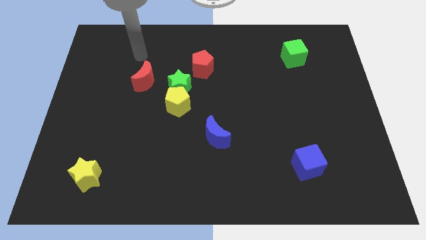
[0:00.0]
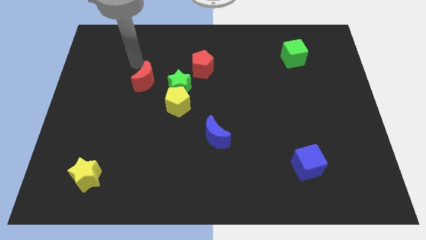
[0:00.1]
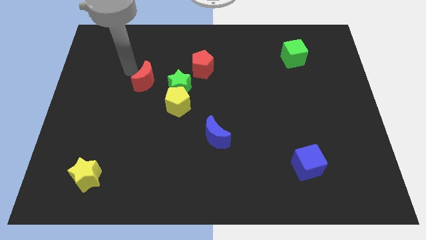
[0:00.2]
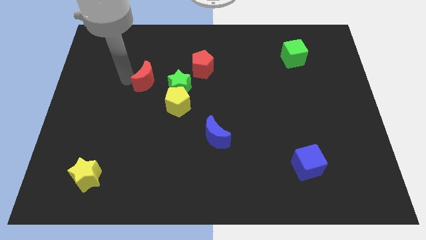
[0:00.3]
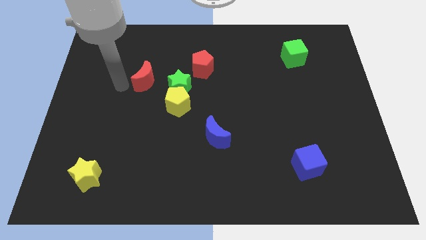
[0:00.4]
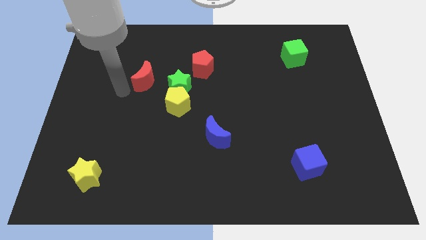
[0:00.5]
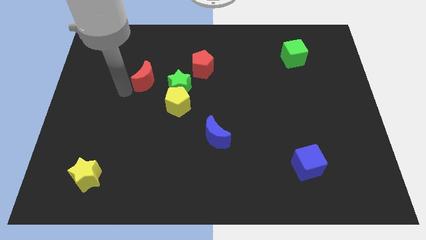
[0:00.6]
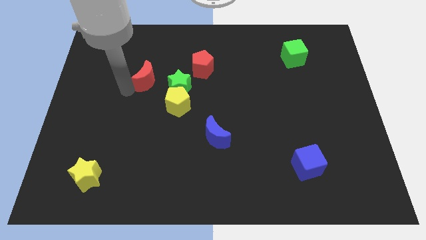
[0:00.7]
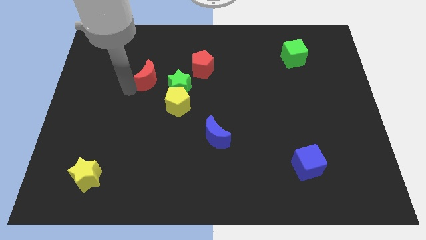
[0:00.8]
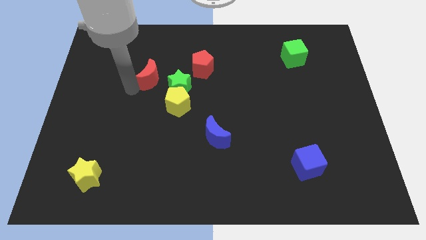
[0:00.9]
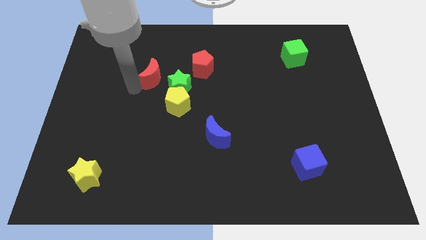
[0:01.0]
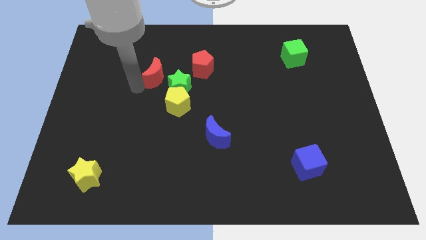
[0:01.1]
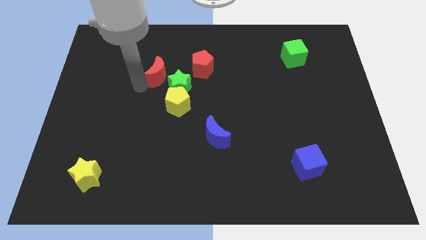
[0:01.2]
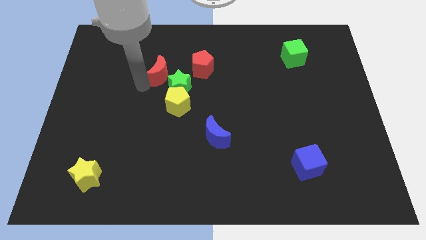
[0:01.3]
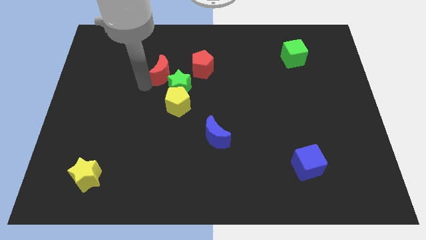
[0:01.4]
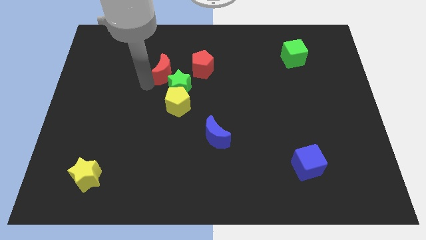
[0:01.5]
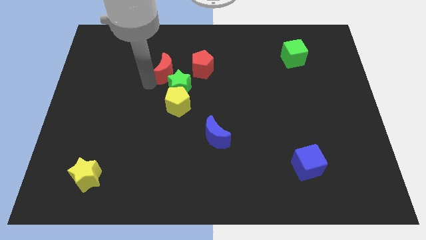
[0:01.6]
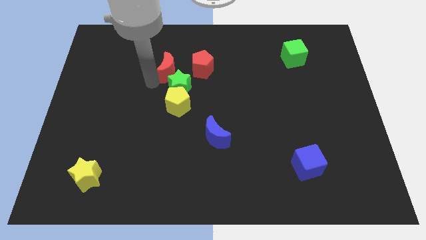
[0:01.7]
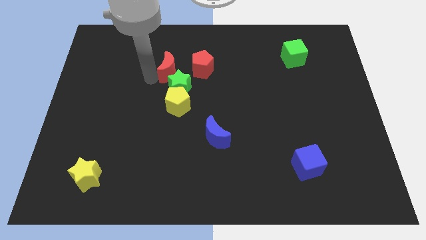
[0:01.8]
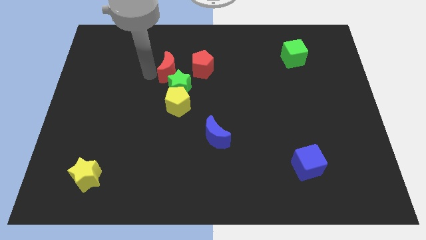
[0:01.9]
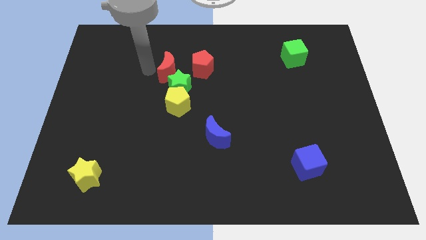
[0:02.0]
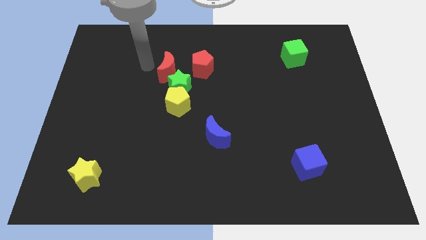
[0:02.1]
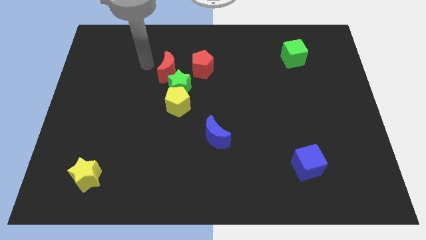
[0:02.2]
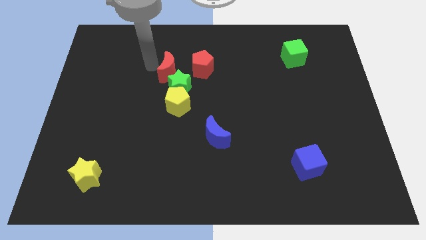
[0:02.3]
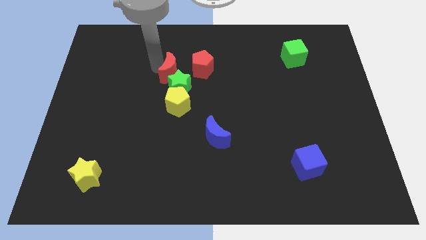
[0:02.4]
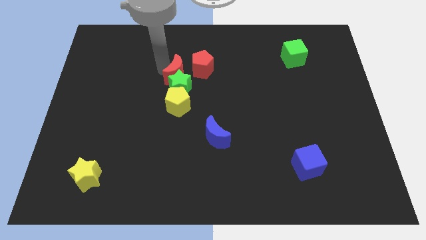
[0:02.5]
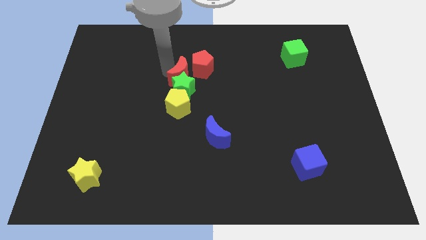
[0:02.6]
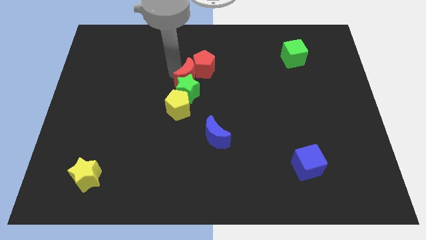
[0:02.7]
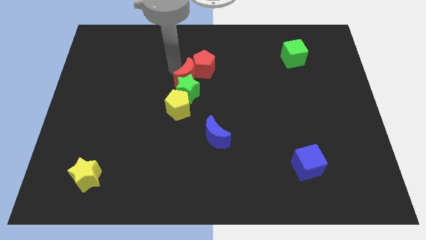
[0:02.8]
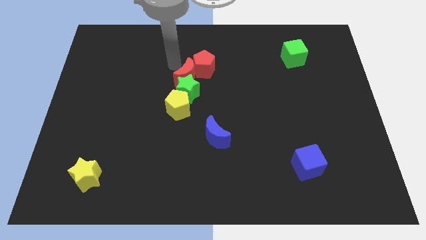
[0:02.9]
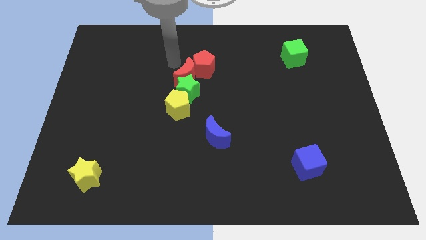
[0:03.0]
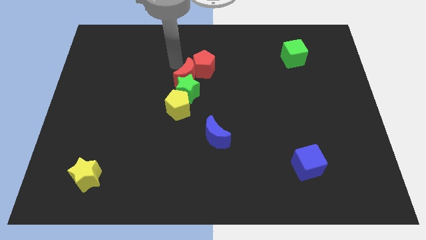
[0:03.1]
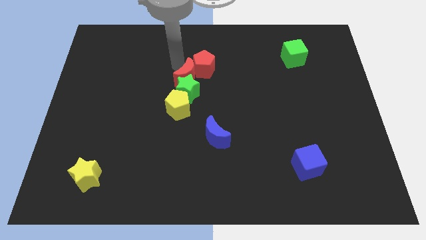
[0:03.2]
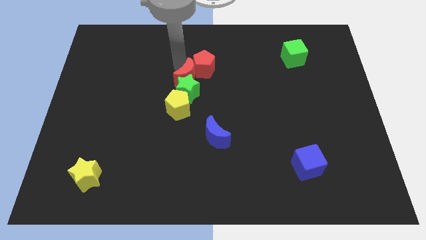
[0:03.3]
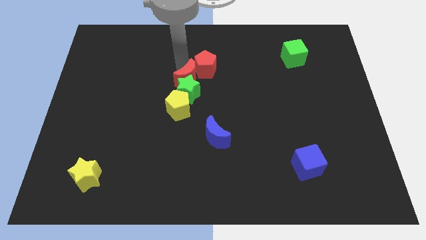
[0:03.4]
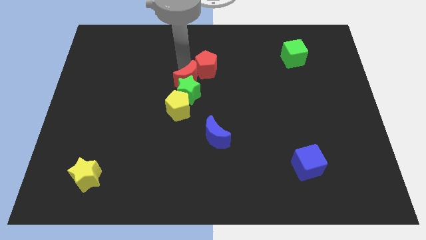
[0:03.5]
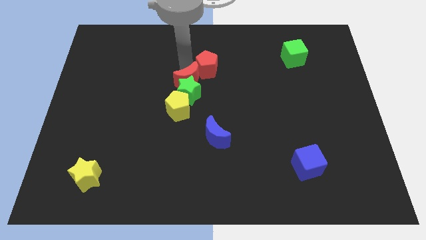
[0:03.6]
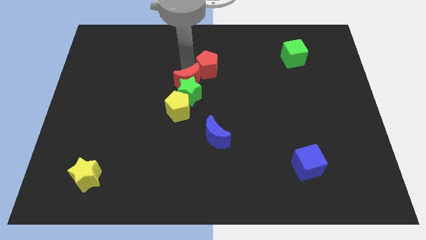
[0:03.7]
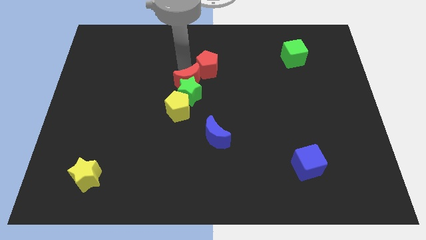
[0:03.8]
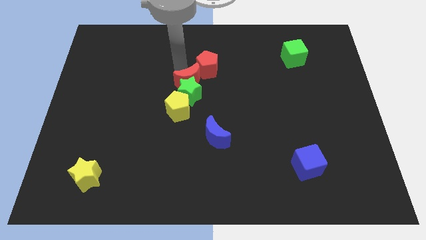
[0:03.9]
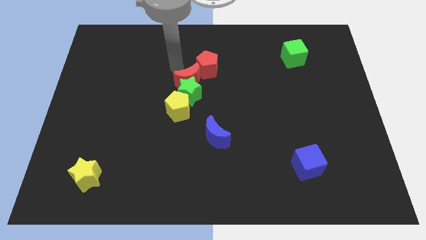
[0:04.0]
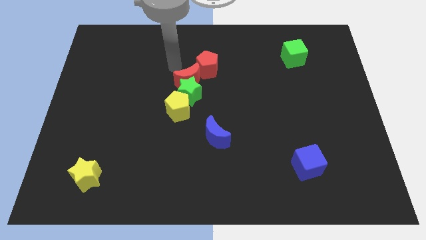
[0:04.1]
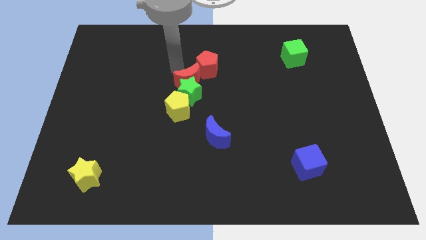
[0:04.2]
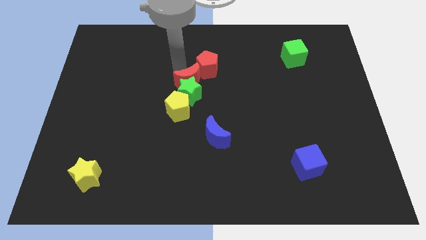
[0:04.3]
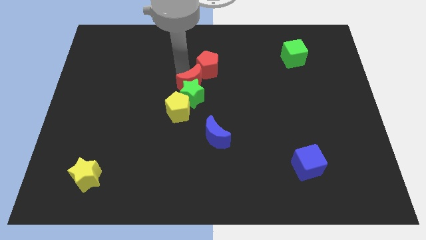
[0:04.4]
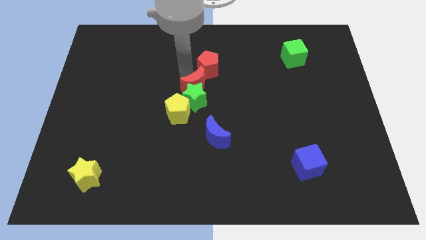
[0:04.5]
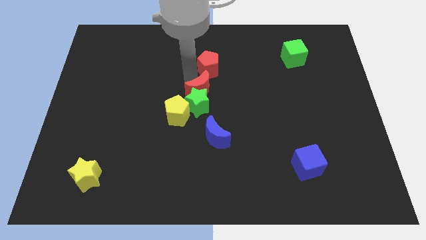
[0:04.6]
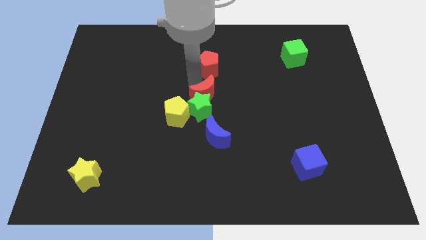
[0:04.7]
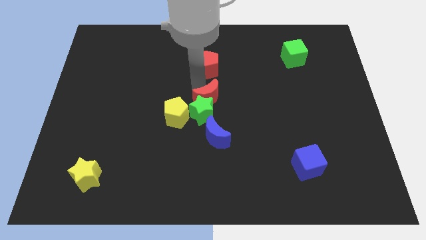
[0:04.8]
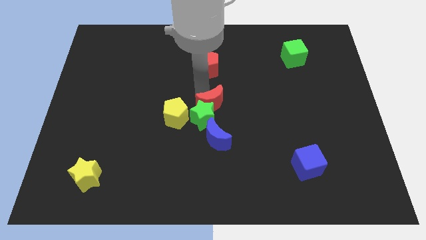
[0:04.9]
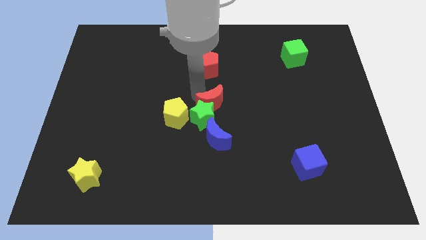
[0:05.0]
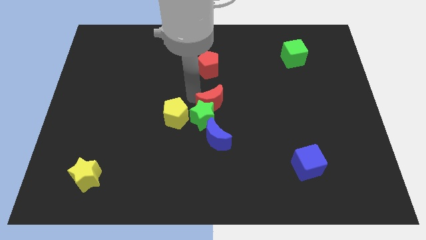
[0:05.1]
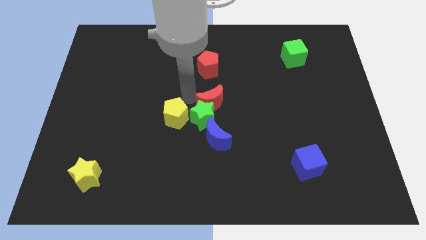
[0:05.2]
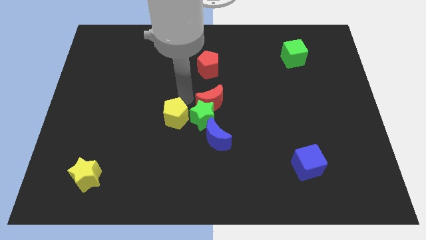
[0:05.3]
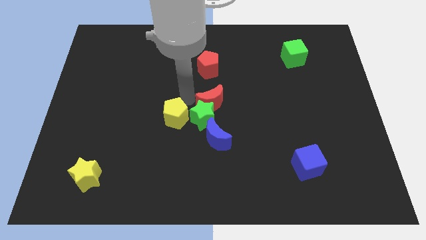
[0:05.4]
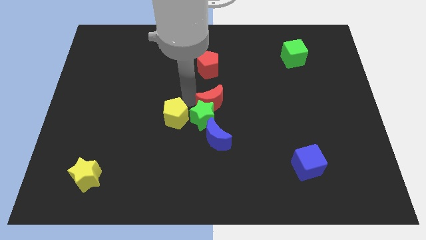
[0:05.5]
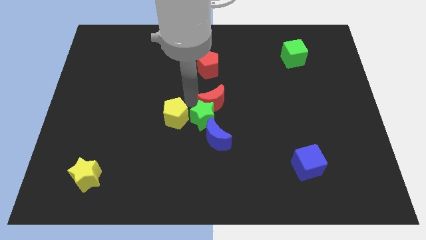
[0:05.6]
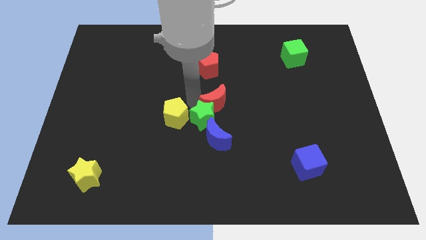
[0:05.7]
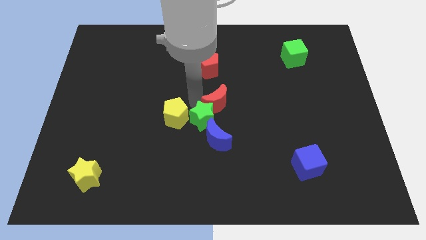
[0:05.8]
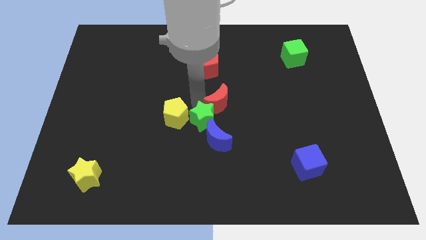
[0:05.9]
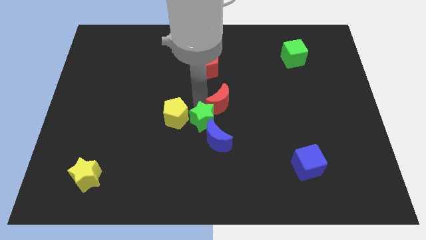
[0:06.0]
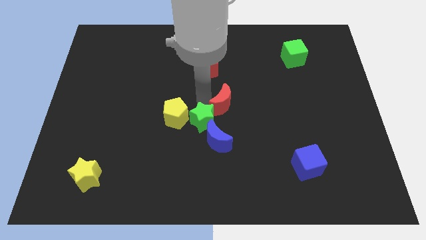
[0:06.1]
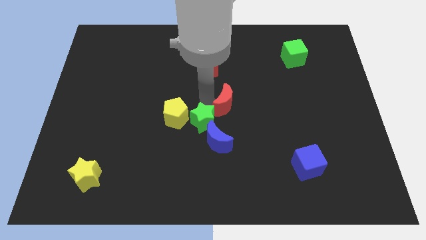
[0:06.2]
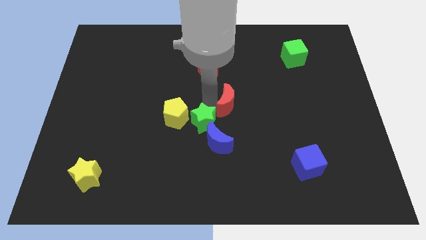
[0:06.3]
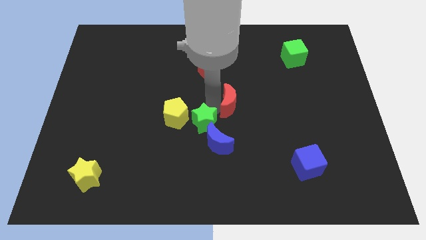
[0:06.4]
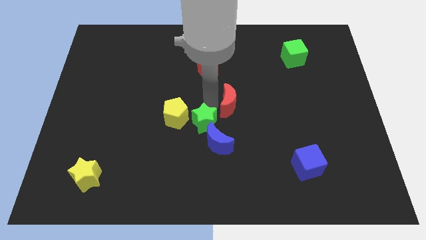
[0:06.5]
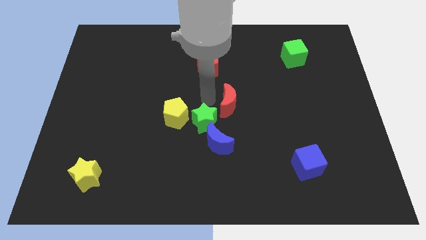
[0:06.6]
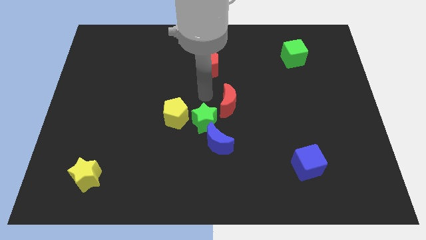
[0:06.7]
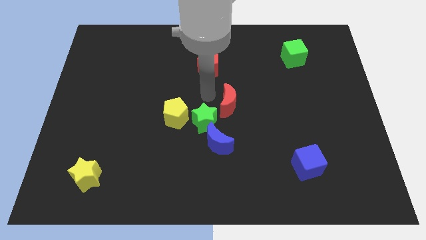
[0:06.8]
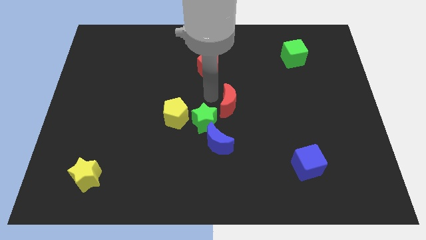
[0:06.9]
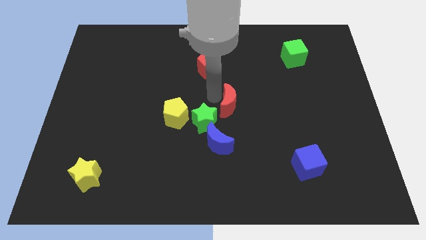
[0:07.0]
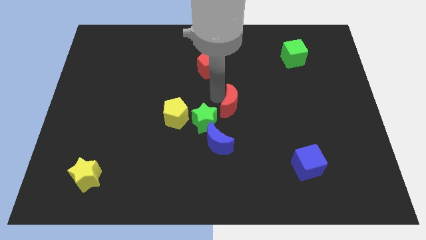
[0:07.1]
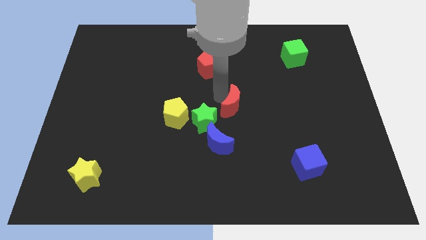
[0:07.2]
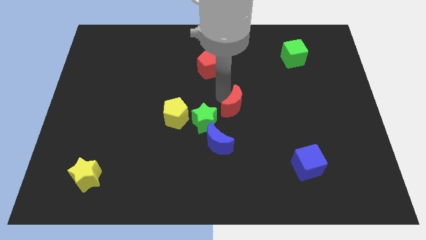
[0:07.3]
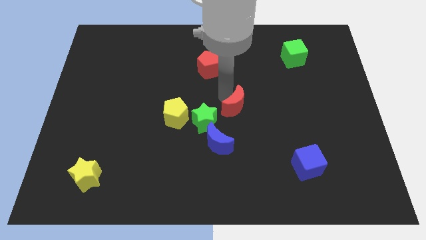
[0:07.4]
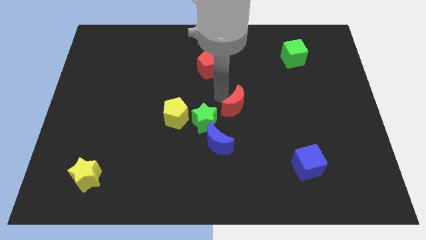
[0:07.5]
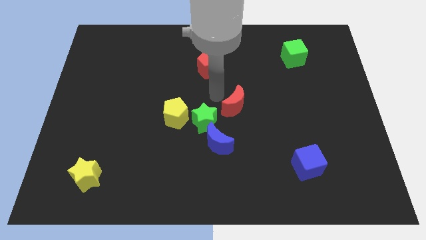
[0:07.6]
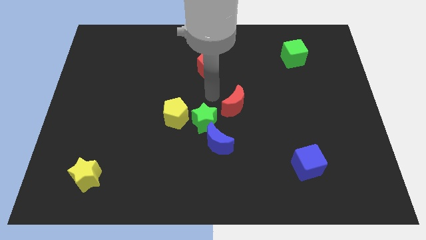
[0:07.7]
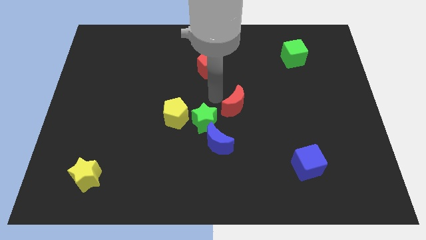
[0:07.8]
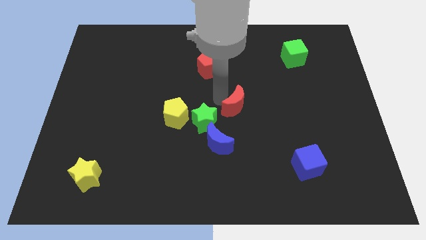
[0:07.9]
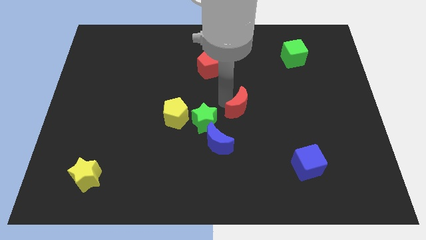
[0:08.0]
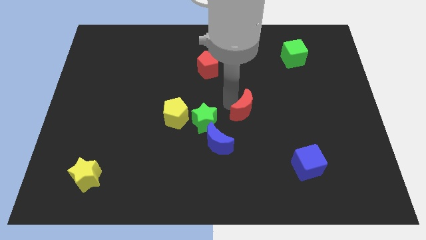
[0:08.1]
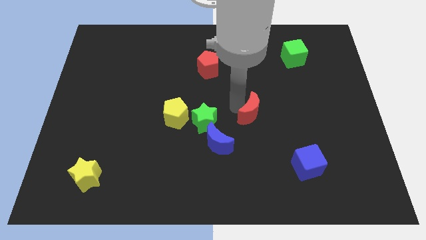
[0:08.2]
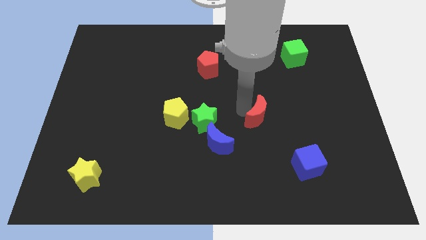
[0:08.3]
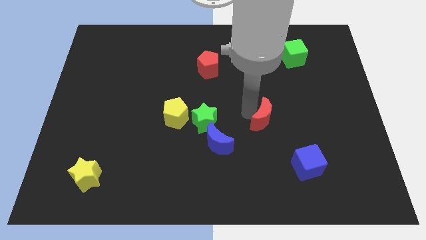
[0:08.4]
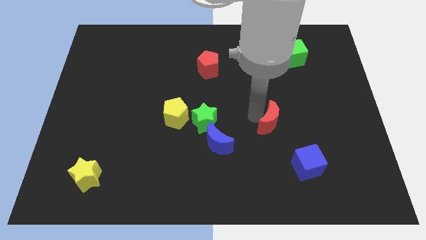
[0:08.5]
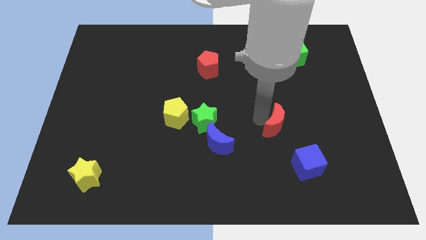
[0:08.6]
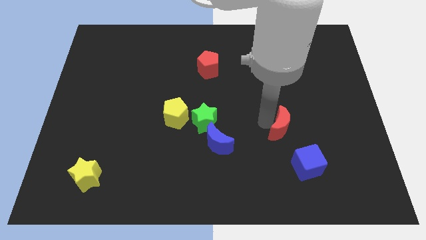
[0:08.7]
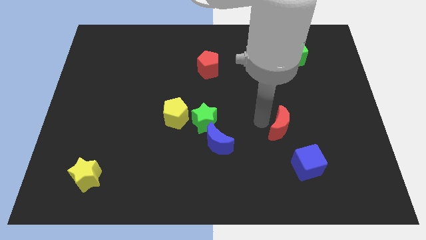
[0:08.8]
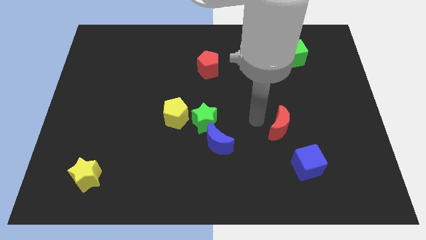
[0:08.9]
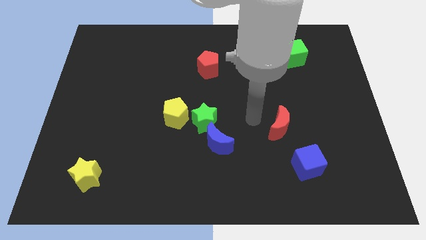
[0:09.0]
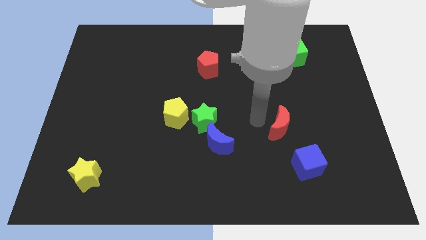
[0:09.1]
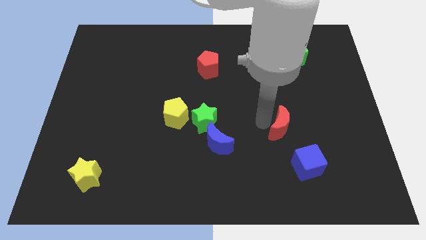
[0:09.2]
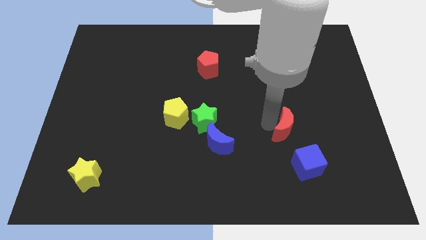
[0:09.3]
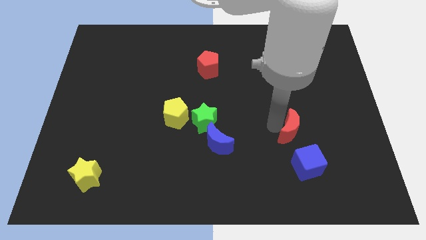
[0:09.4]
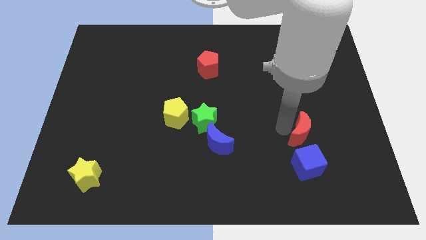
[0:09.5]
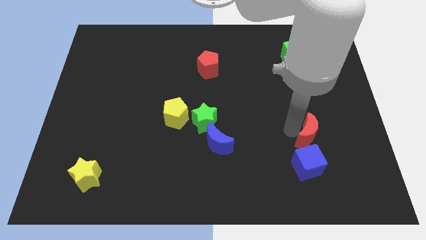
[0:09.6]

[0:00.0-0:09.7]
push the red moon to the top right of the blue cube
